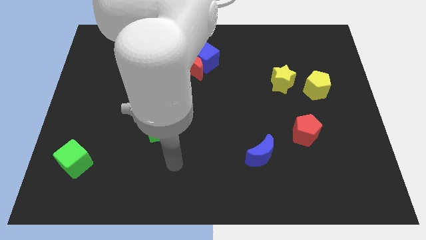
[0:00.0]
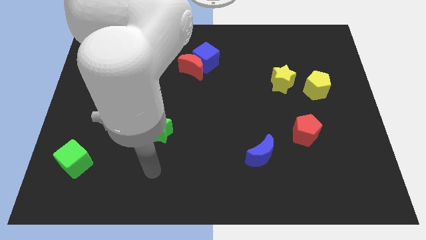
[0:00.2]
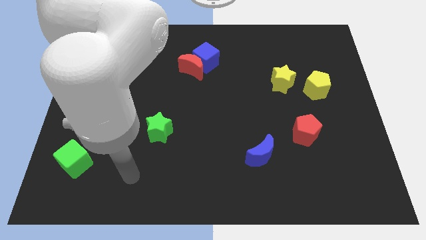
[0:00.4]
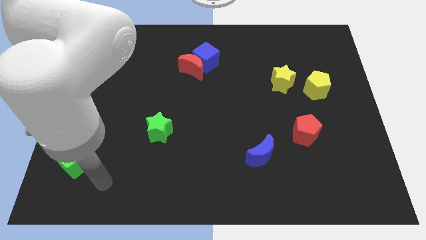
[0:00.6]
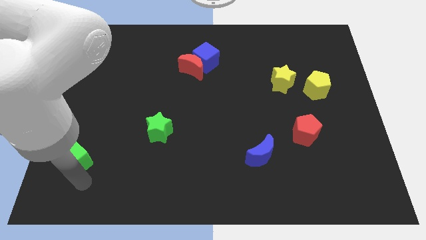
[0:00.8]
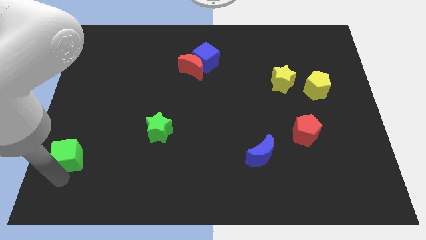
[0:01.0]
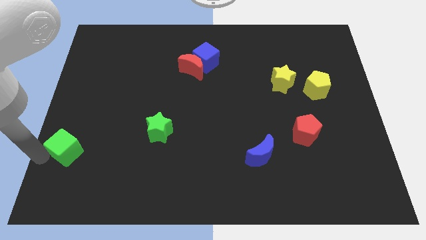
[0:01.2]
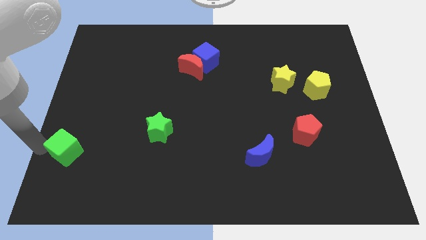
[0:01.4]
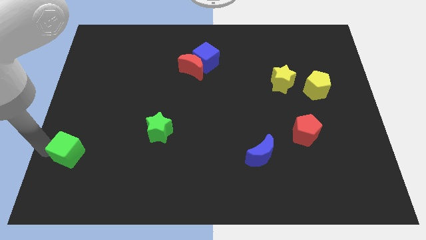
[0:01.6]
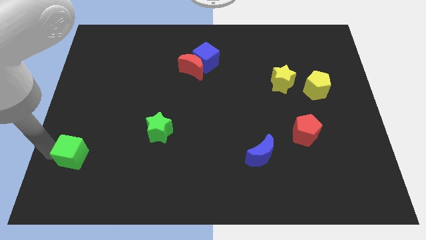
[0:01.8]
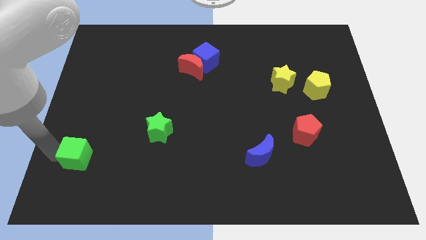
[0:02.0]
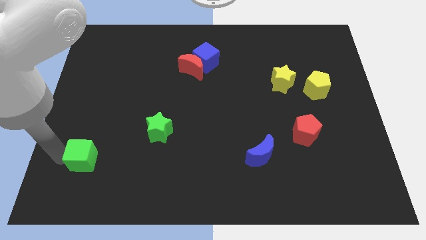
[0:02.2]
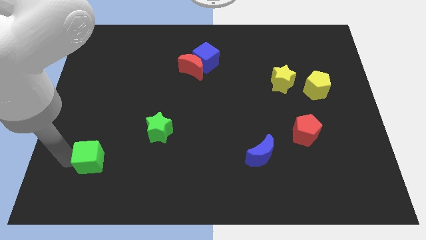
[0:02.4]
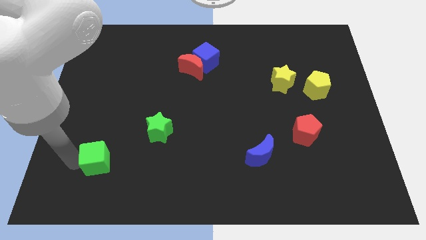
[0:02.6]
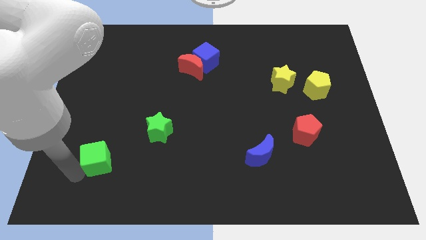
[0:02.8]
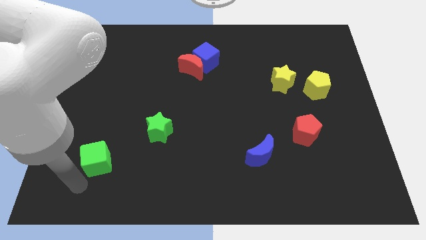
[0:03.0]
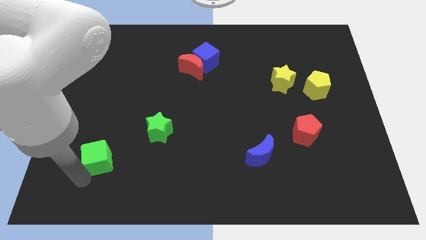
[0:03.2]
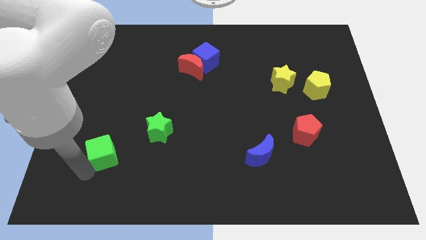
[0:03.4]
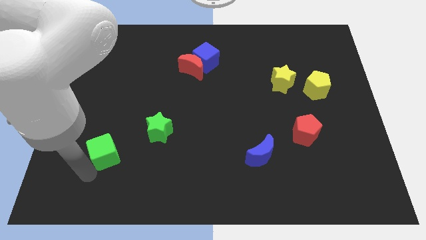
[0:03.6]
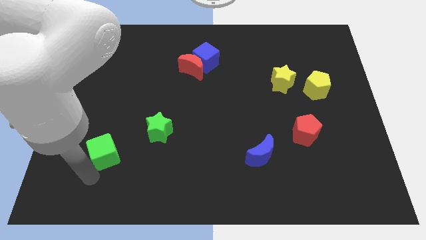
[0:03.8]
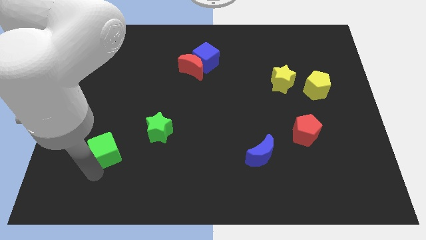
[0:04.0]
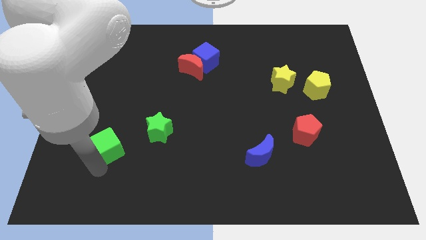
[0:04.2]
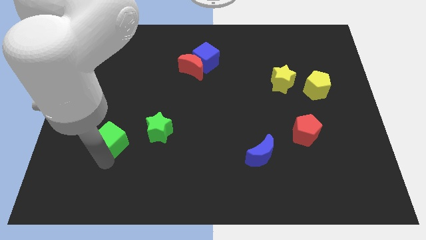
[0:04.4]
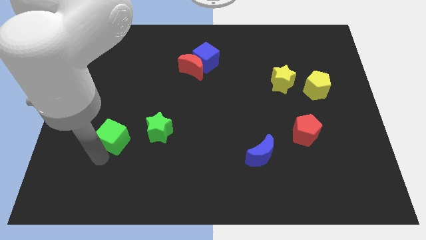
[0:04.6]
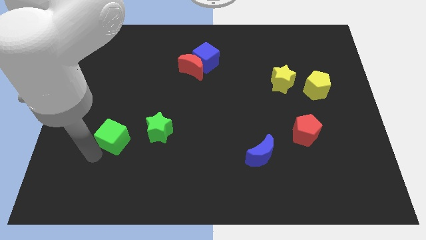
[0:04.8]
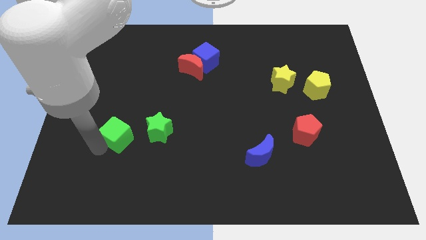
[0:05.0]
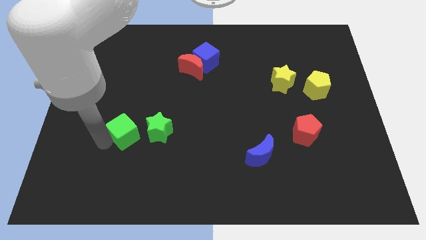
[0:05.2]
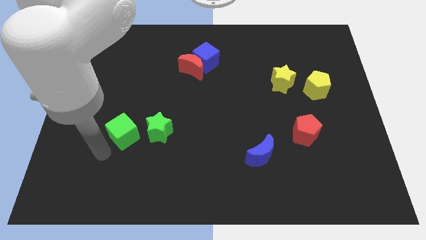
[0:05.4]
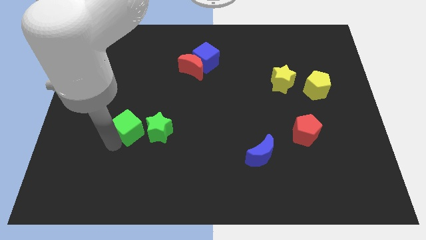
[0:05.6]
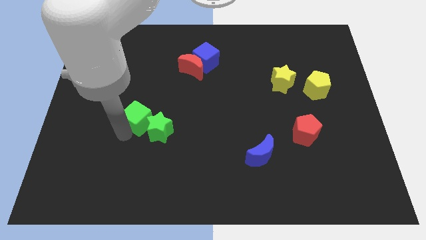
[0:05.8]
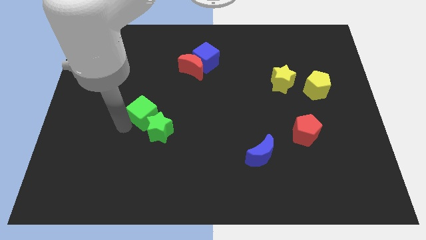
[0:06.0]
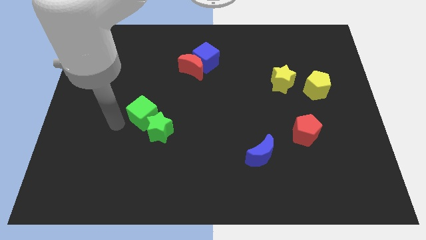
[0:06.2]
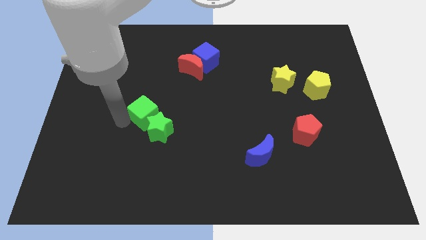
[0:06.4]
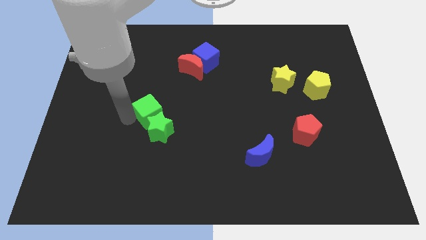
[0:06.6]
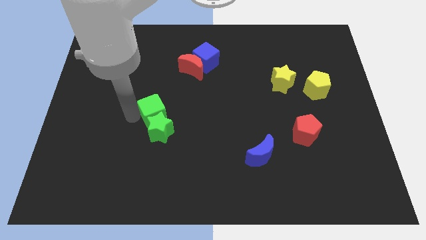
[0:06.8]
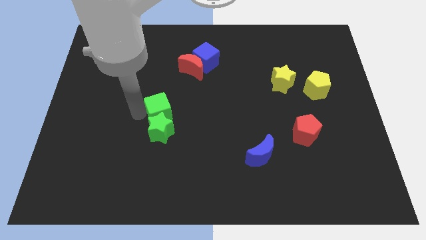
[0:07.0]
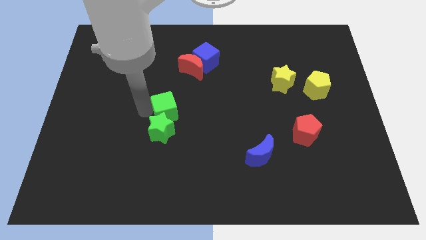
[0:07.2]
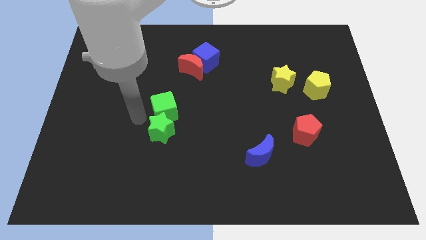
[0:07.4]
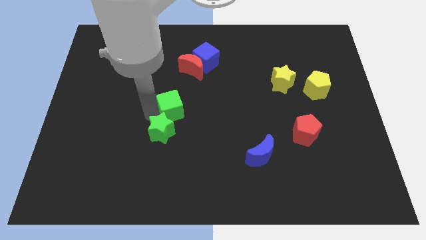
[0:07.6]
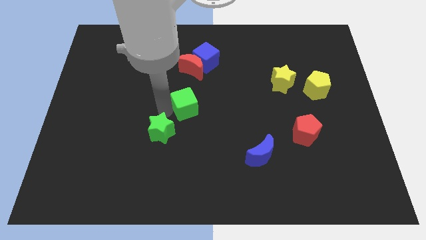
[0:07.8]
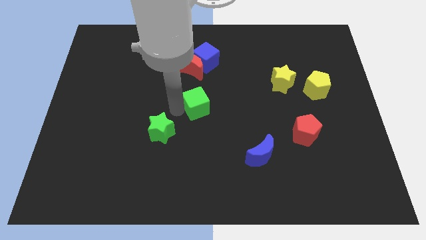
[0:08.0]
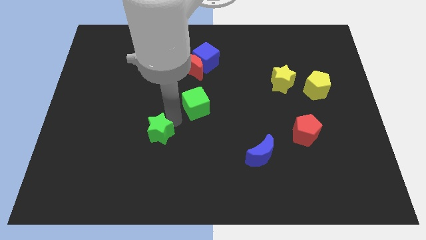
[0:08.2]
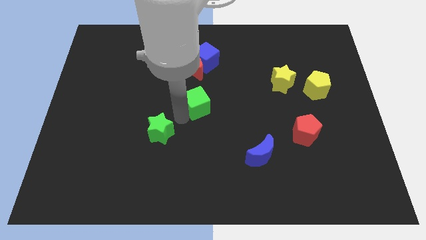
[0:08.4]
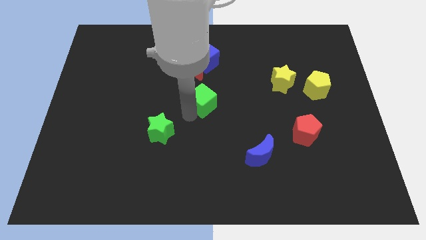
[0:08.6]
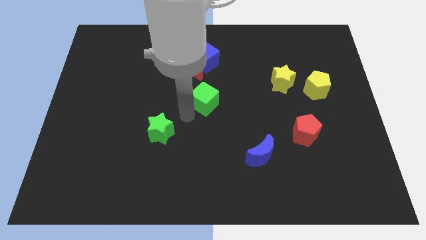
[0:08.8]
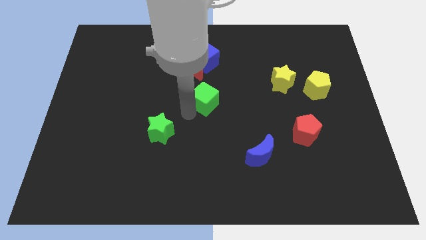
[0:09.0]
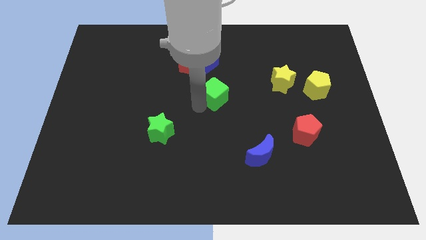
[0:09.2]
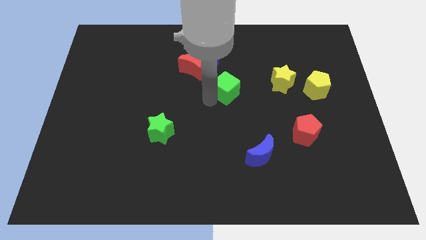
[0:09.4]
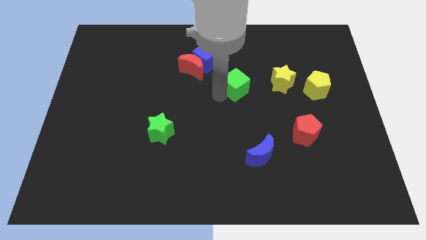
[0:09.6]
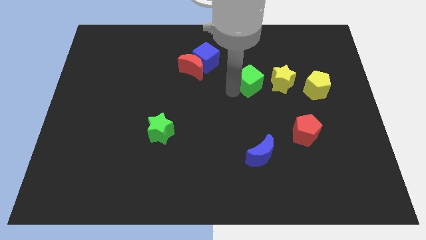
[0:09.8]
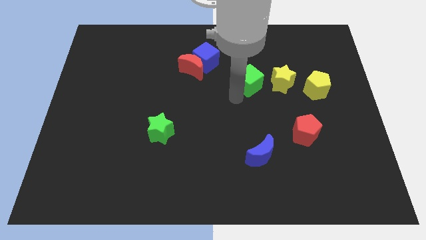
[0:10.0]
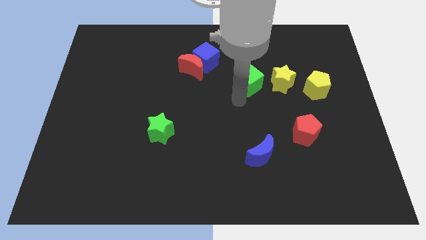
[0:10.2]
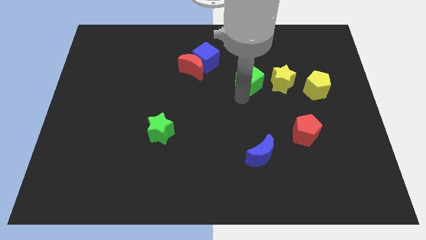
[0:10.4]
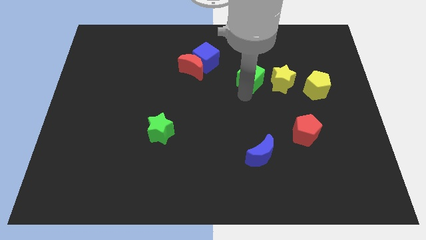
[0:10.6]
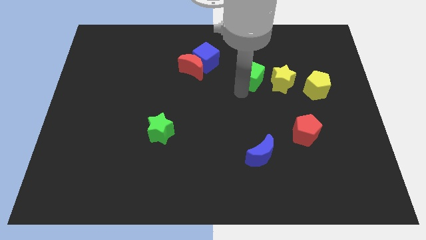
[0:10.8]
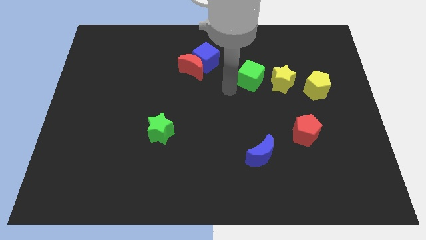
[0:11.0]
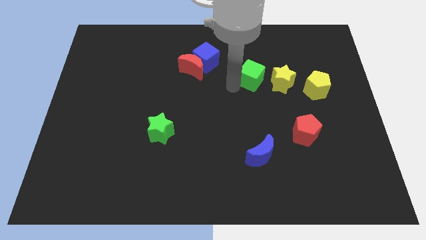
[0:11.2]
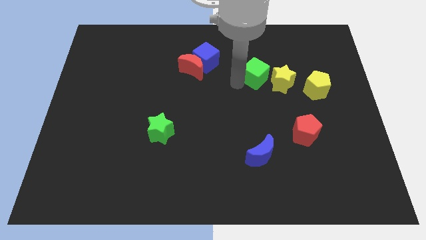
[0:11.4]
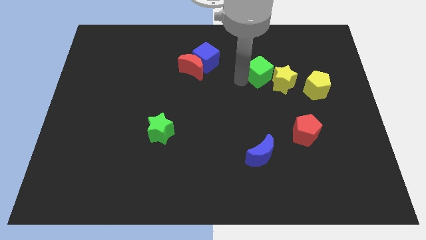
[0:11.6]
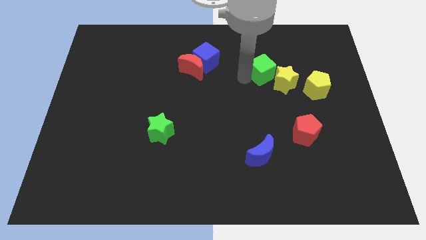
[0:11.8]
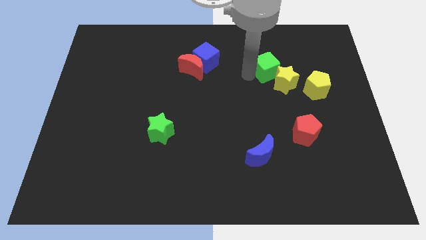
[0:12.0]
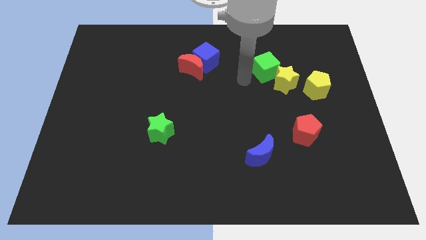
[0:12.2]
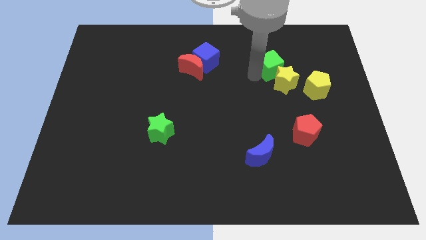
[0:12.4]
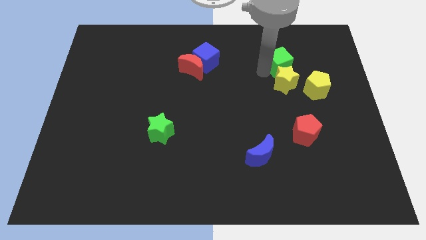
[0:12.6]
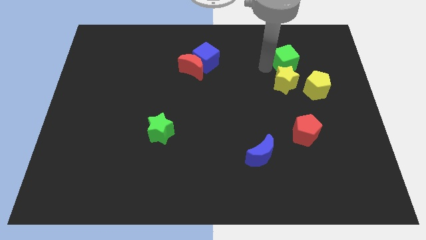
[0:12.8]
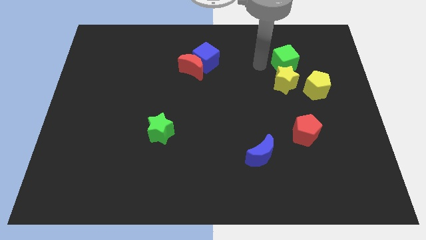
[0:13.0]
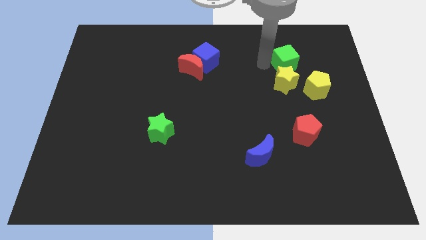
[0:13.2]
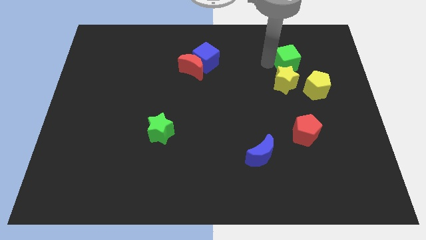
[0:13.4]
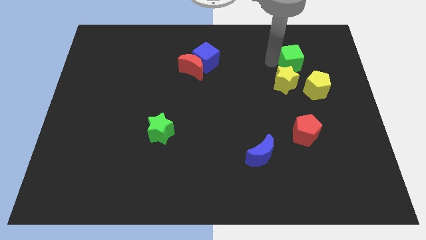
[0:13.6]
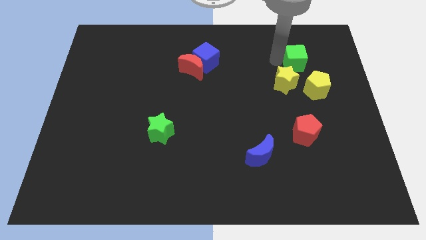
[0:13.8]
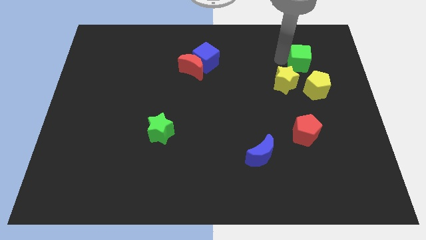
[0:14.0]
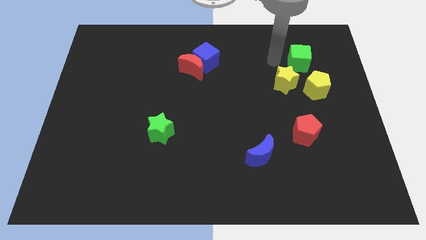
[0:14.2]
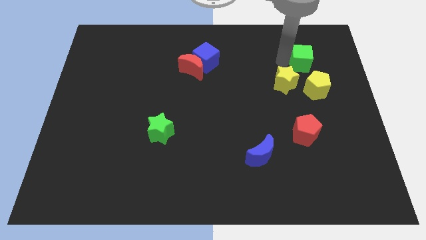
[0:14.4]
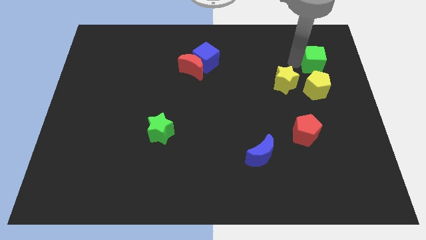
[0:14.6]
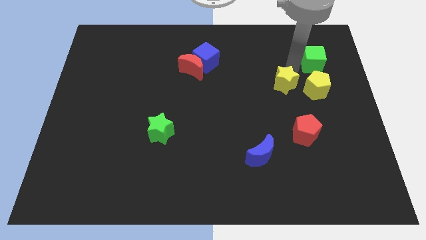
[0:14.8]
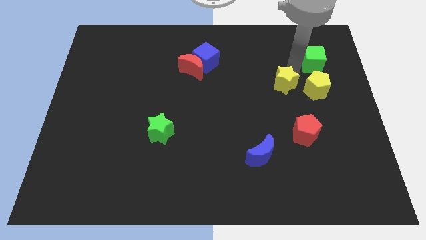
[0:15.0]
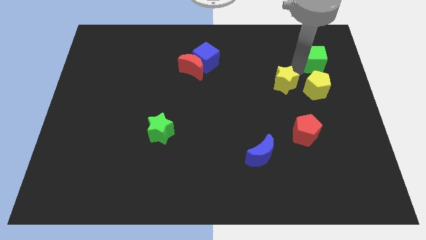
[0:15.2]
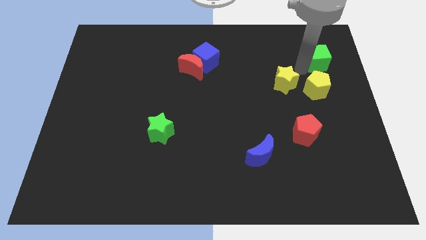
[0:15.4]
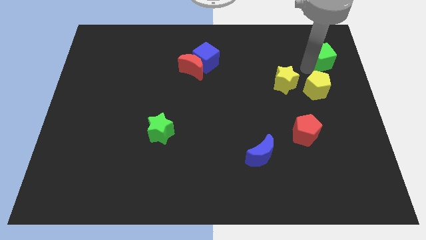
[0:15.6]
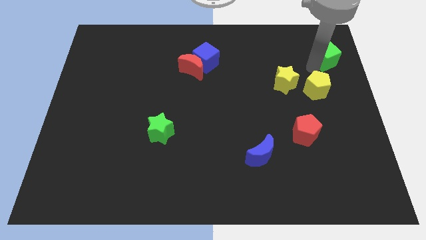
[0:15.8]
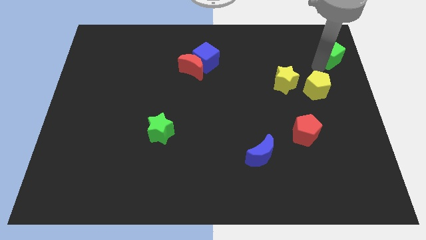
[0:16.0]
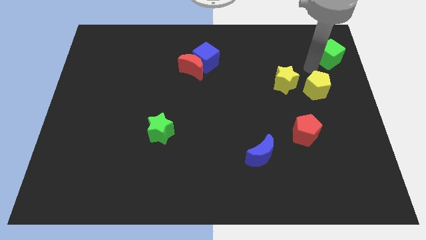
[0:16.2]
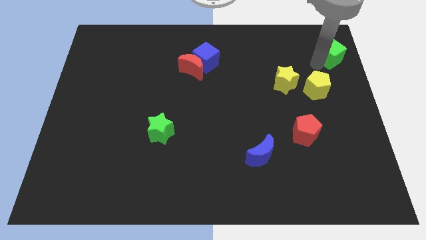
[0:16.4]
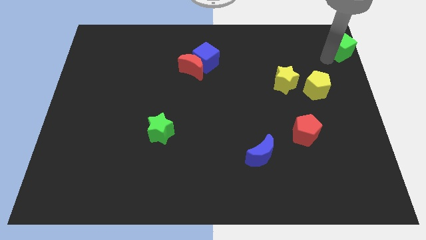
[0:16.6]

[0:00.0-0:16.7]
slide the green cube to the top right of the board
